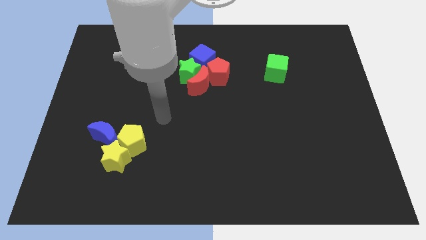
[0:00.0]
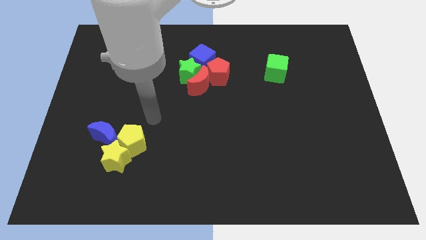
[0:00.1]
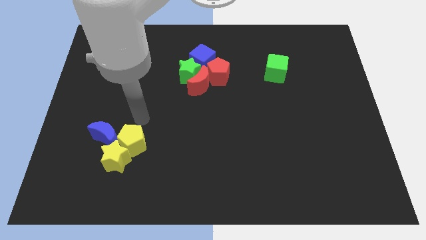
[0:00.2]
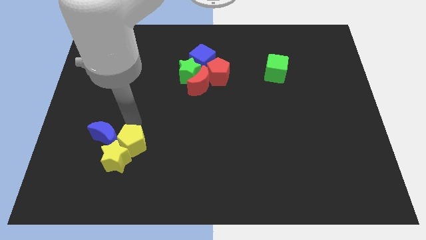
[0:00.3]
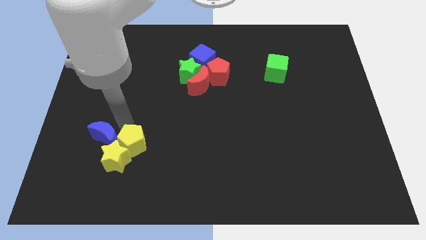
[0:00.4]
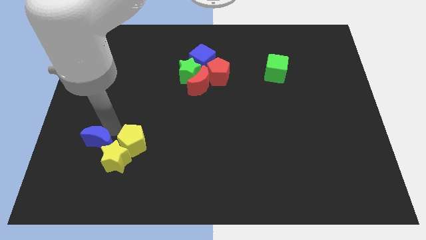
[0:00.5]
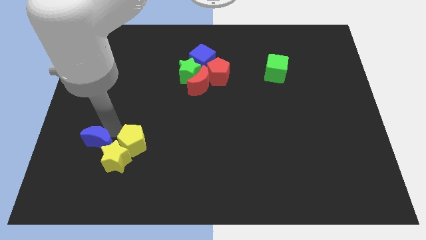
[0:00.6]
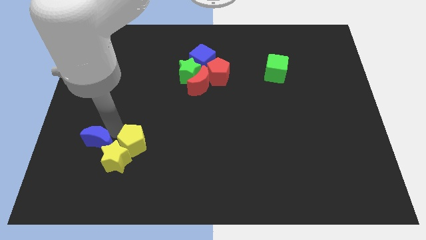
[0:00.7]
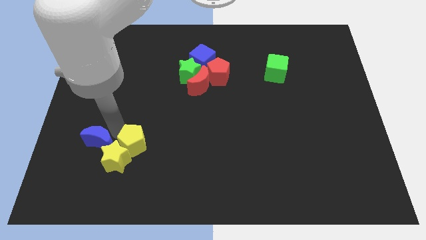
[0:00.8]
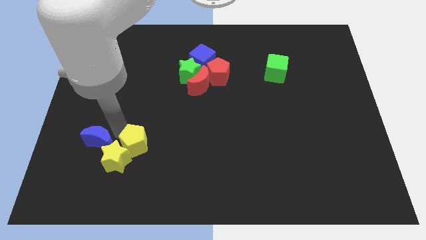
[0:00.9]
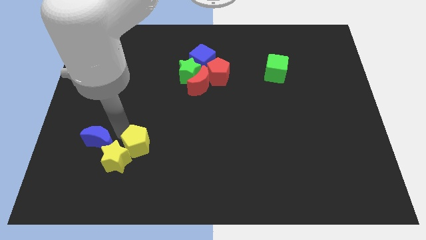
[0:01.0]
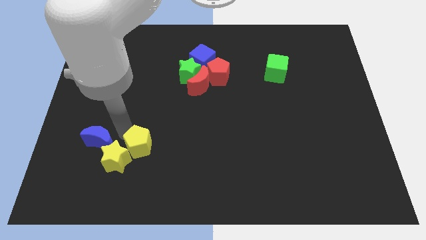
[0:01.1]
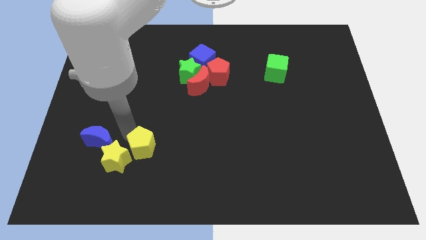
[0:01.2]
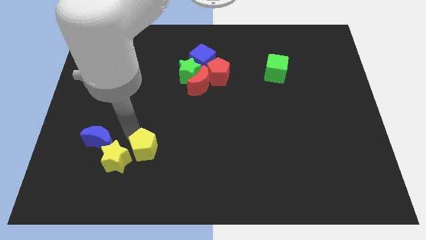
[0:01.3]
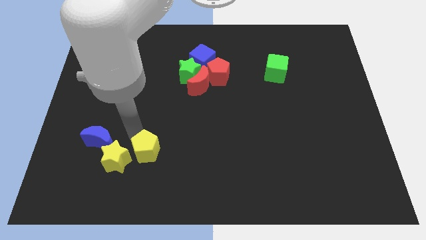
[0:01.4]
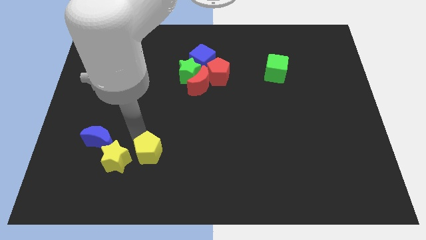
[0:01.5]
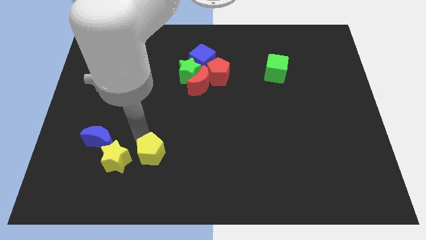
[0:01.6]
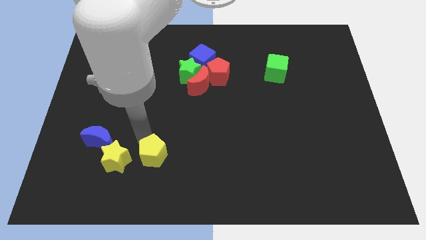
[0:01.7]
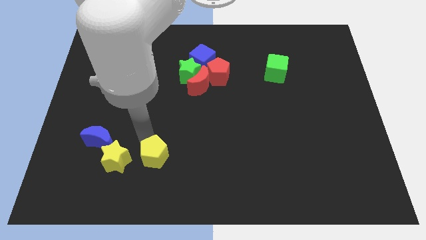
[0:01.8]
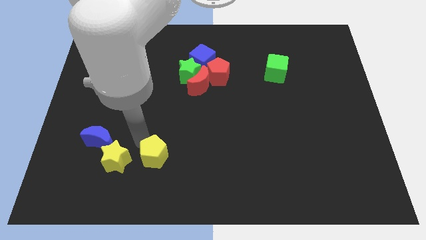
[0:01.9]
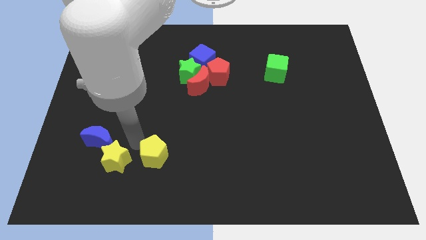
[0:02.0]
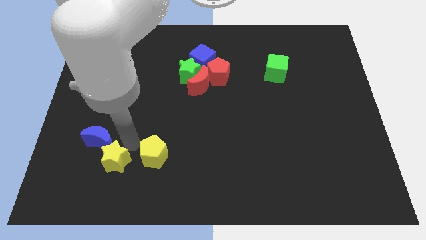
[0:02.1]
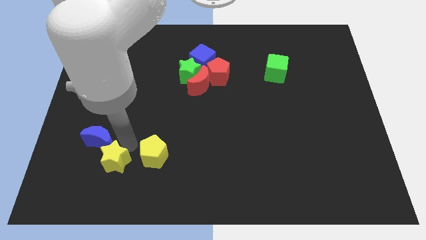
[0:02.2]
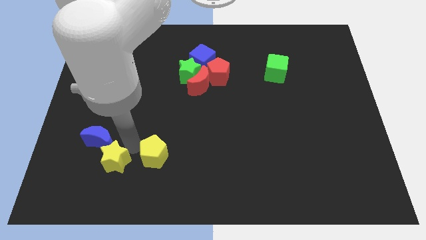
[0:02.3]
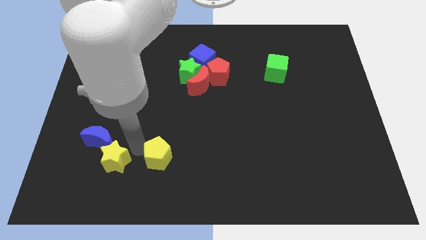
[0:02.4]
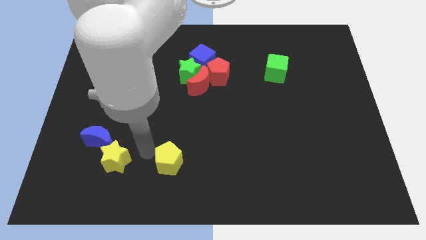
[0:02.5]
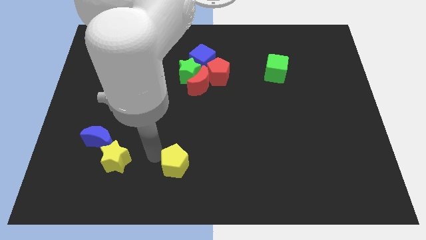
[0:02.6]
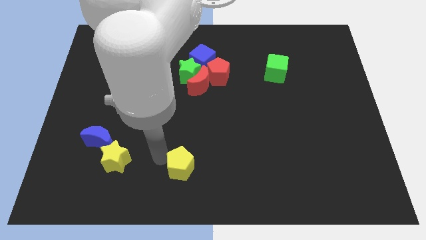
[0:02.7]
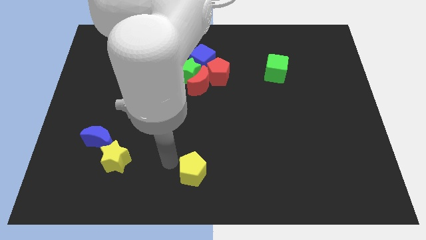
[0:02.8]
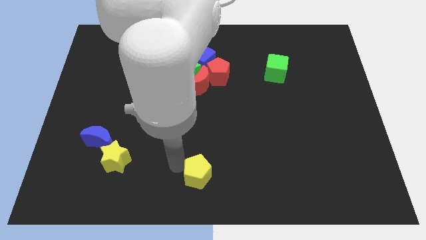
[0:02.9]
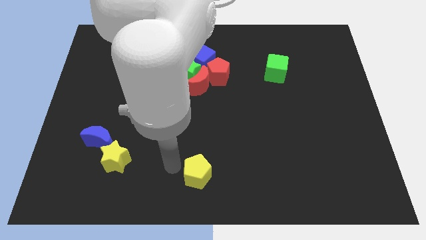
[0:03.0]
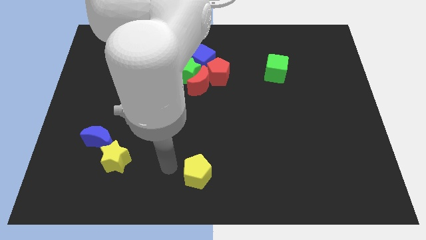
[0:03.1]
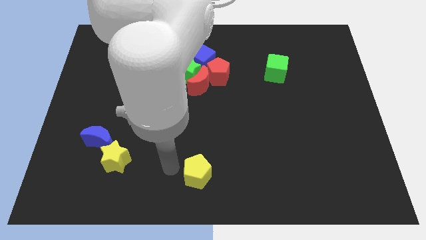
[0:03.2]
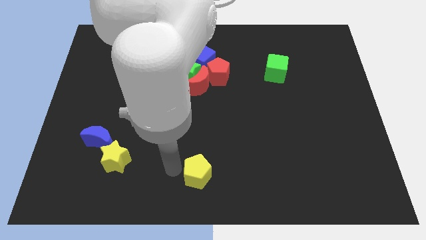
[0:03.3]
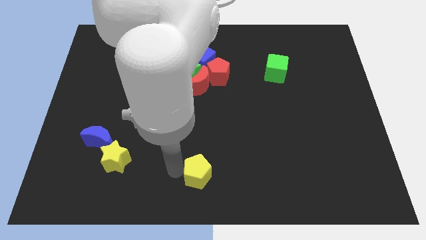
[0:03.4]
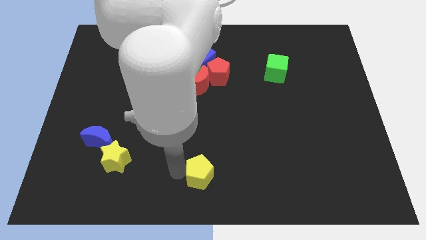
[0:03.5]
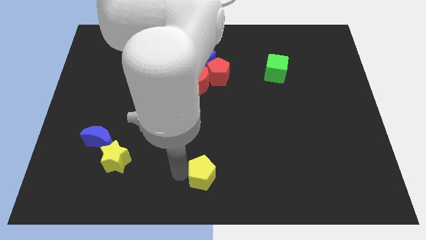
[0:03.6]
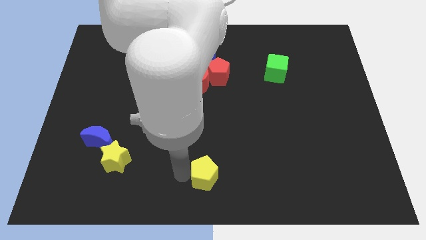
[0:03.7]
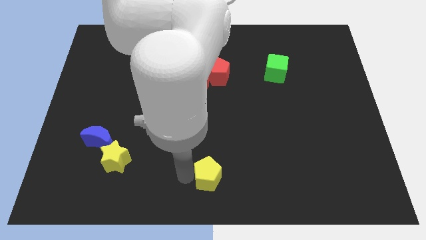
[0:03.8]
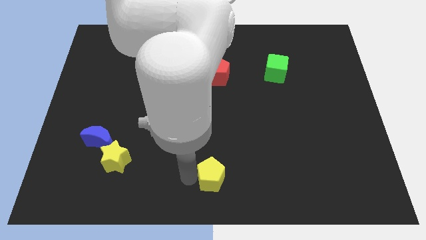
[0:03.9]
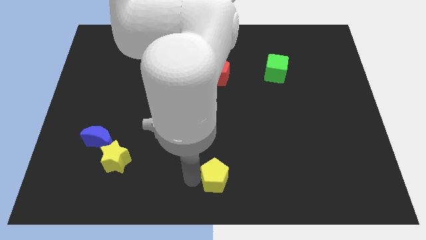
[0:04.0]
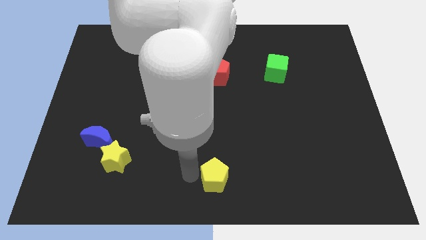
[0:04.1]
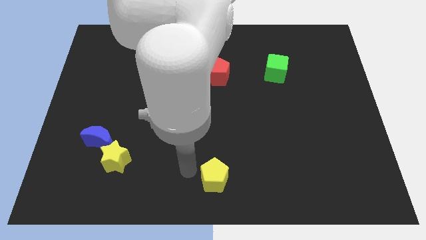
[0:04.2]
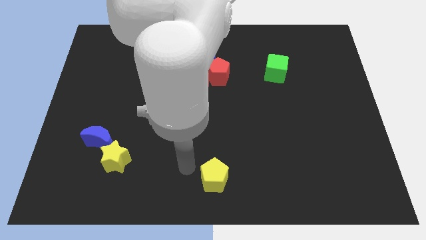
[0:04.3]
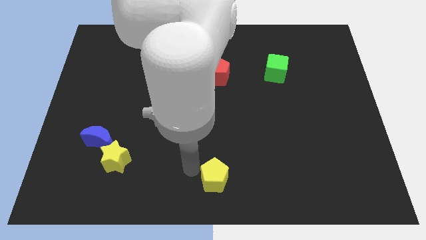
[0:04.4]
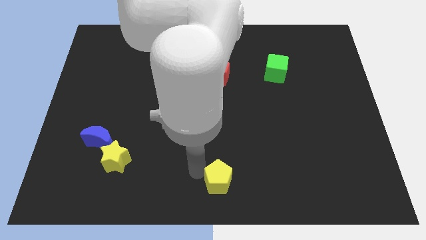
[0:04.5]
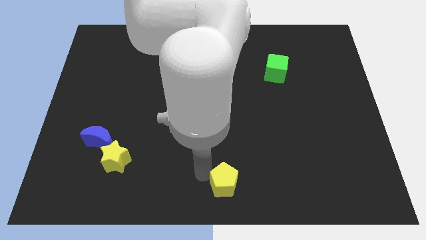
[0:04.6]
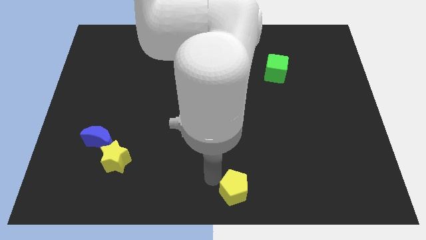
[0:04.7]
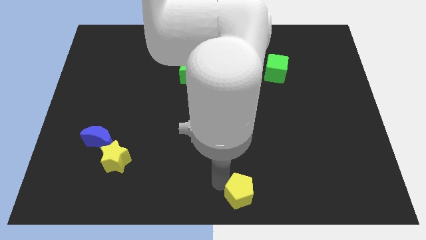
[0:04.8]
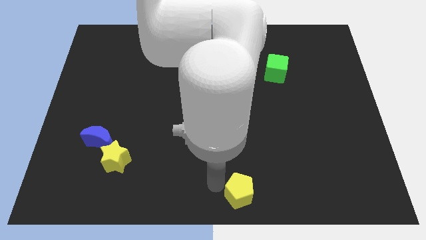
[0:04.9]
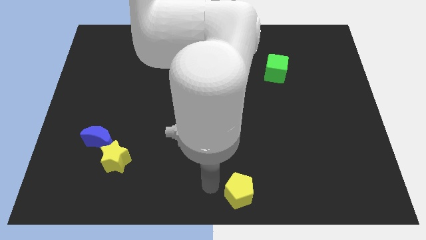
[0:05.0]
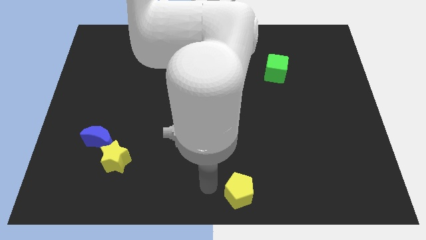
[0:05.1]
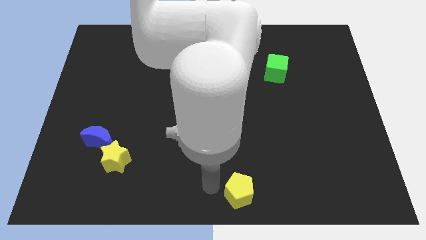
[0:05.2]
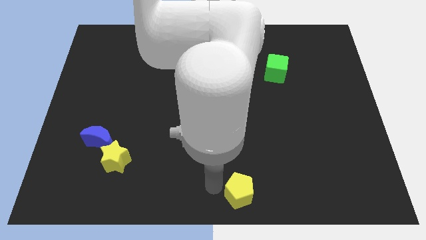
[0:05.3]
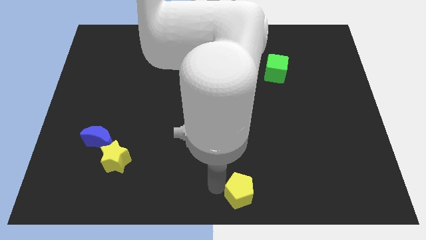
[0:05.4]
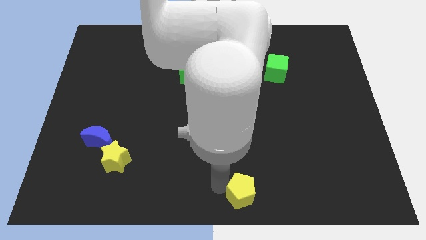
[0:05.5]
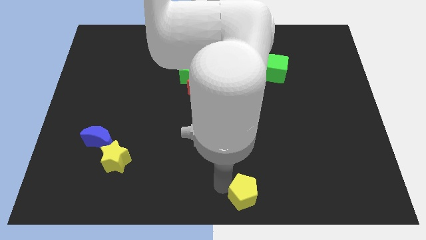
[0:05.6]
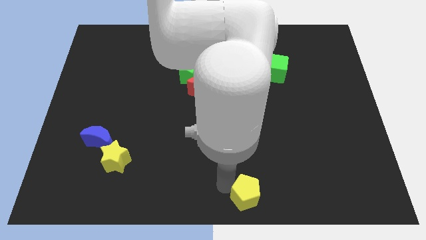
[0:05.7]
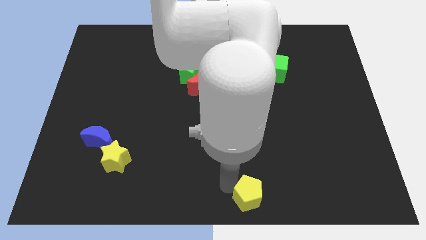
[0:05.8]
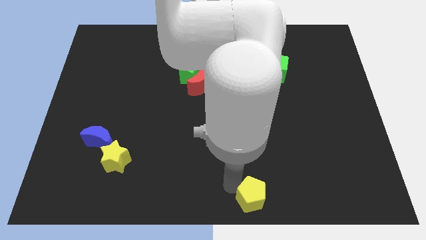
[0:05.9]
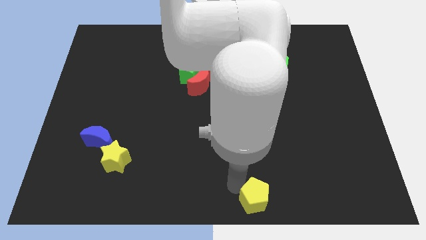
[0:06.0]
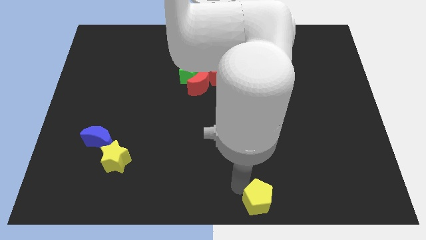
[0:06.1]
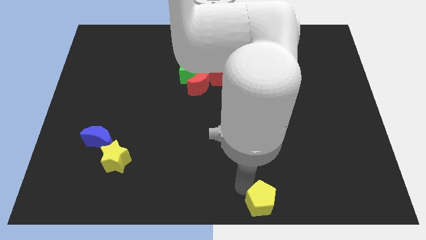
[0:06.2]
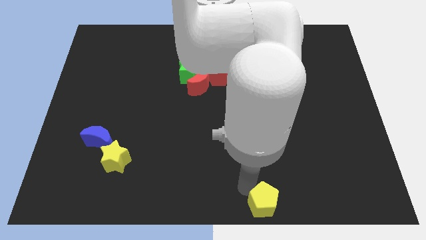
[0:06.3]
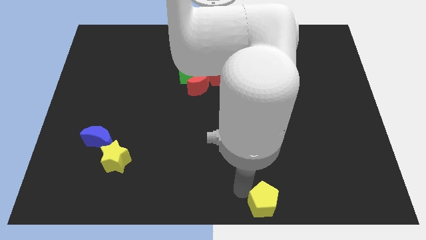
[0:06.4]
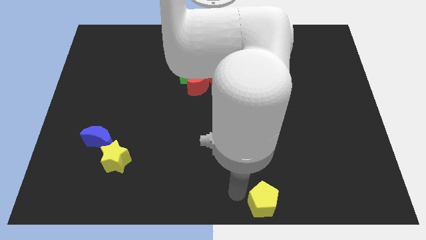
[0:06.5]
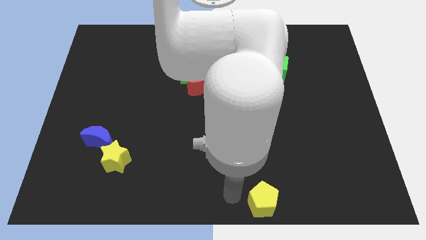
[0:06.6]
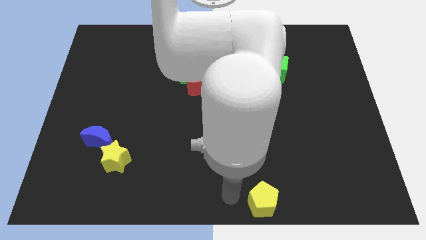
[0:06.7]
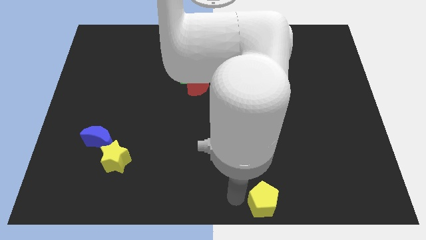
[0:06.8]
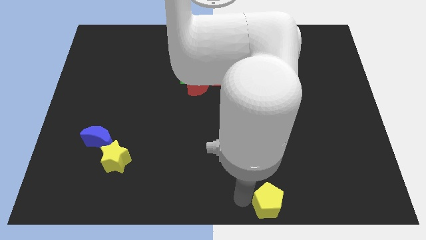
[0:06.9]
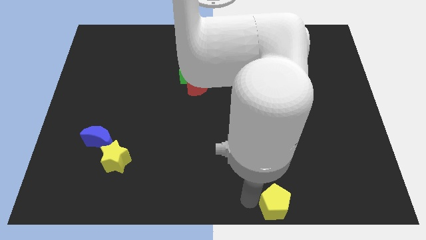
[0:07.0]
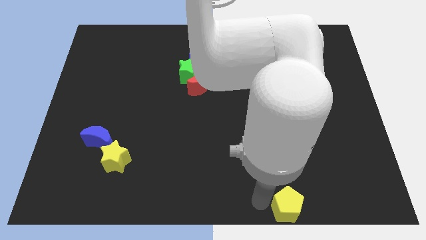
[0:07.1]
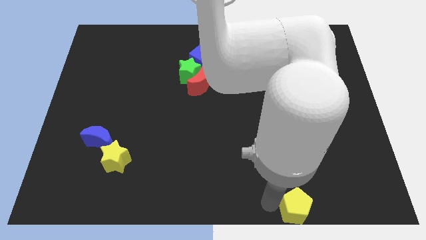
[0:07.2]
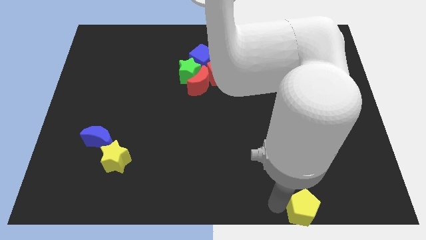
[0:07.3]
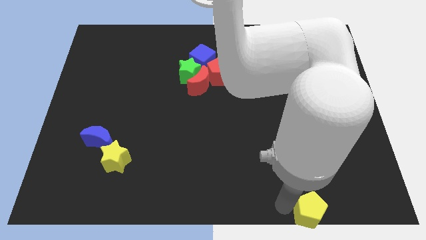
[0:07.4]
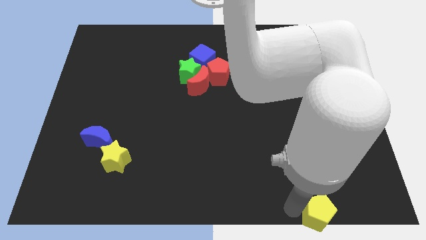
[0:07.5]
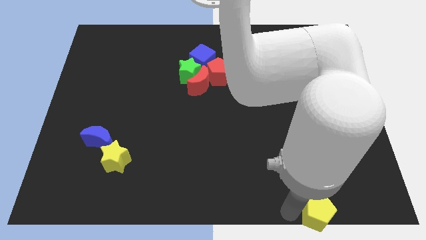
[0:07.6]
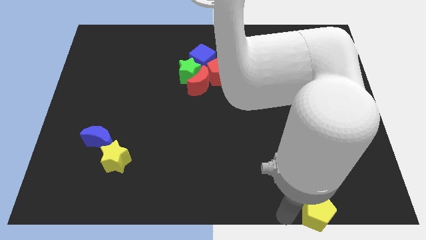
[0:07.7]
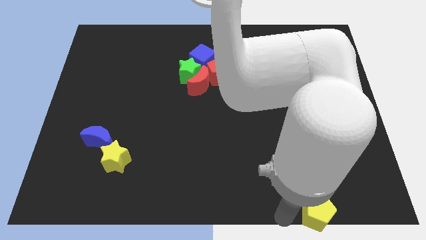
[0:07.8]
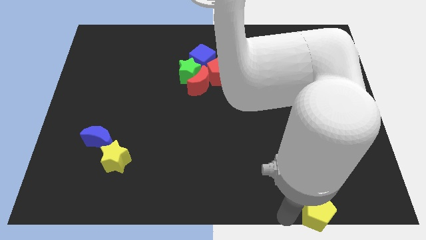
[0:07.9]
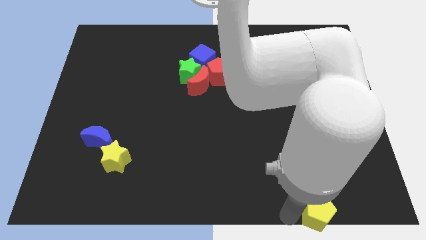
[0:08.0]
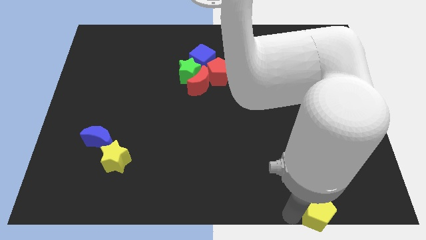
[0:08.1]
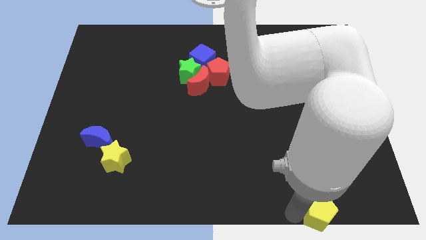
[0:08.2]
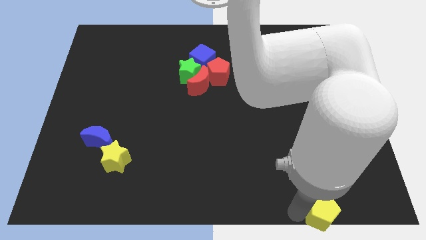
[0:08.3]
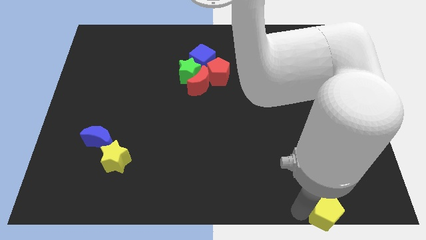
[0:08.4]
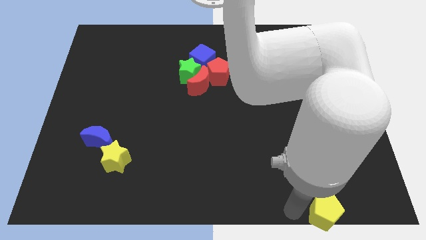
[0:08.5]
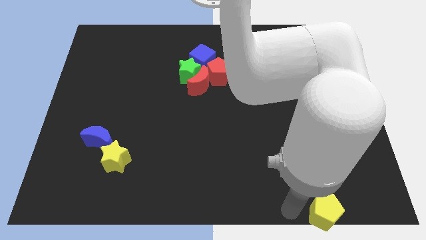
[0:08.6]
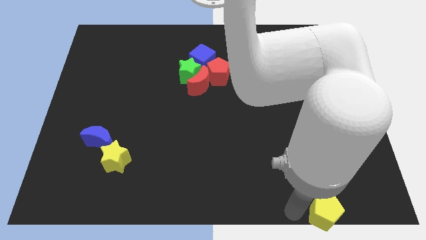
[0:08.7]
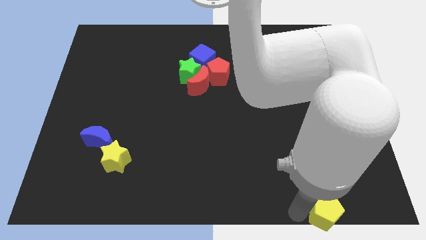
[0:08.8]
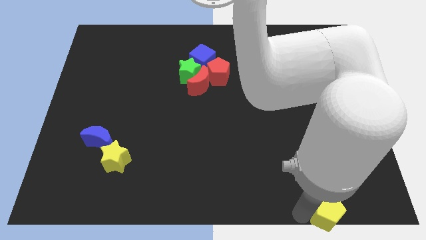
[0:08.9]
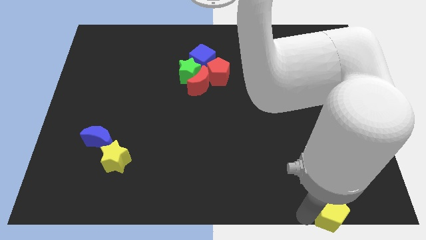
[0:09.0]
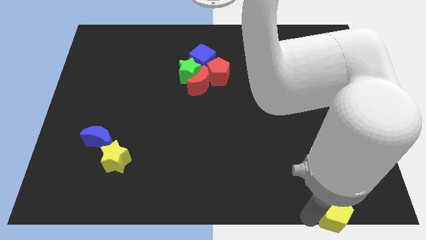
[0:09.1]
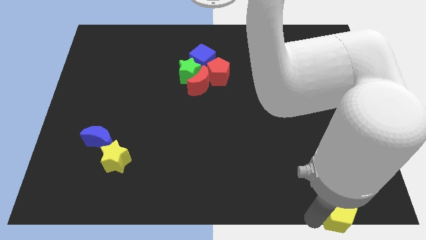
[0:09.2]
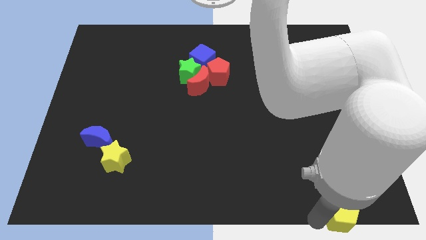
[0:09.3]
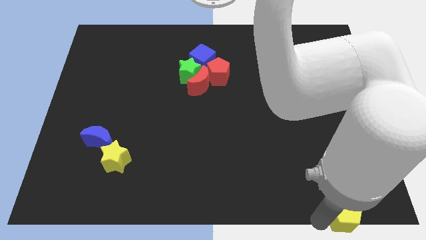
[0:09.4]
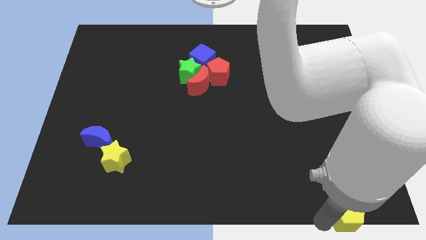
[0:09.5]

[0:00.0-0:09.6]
push the yellow pentagon to the bottom right corner
